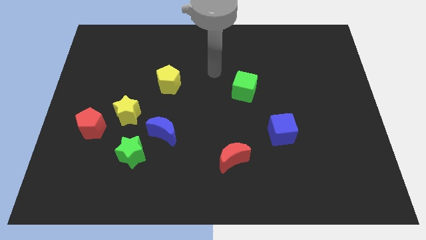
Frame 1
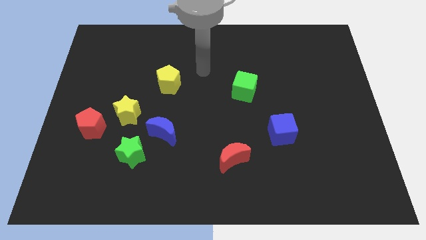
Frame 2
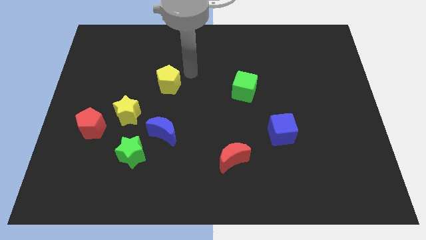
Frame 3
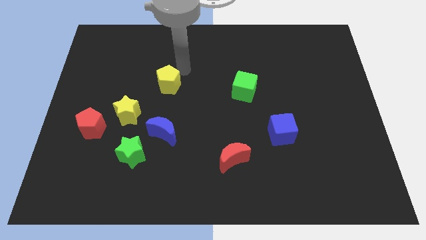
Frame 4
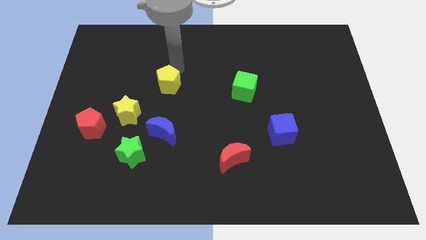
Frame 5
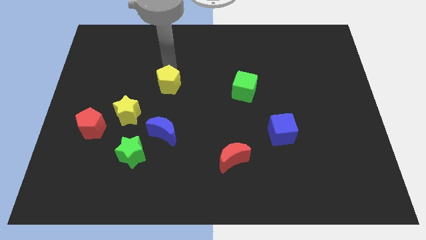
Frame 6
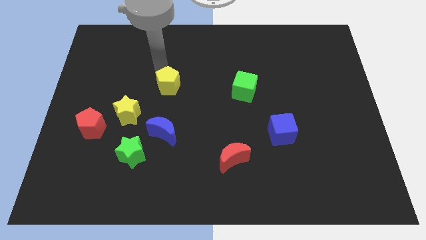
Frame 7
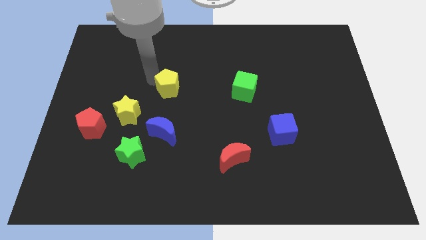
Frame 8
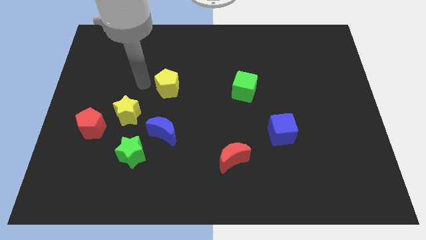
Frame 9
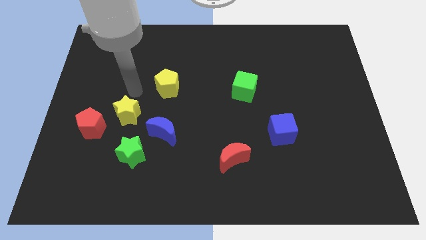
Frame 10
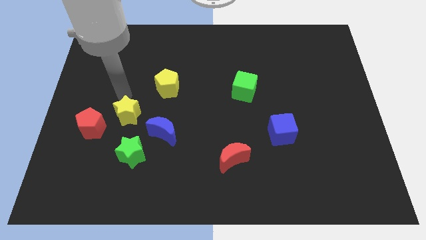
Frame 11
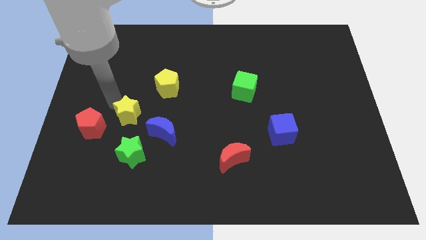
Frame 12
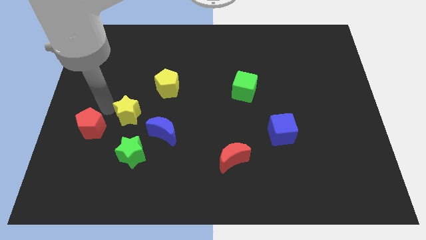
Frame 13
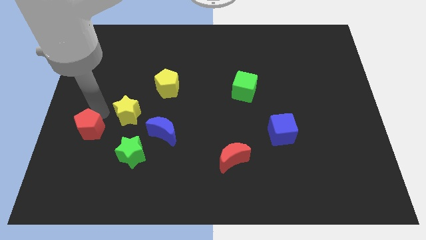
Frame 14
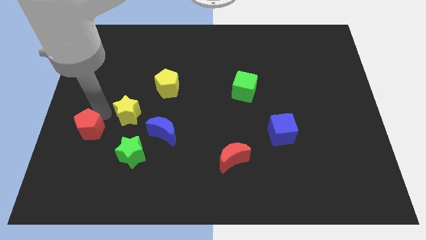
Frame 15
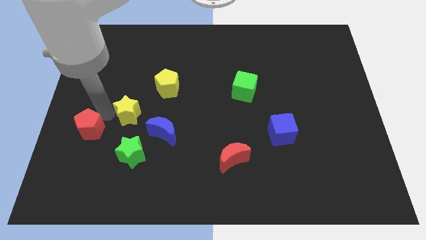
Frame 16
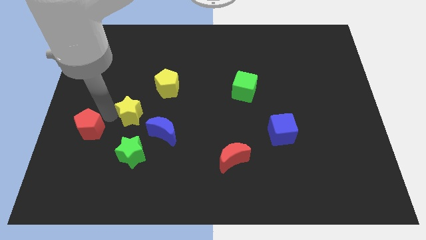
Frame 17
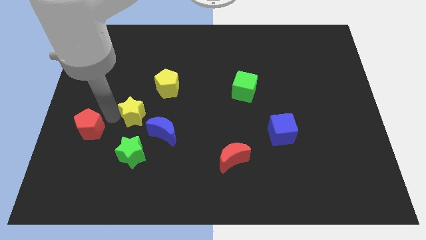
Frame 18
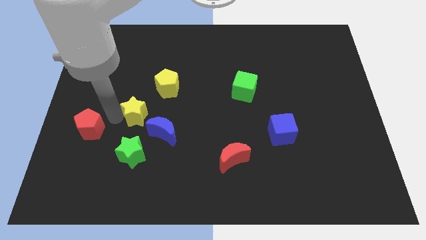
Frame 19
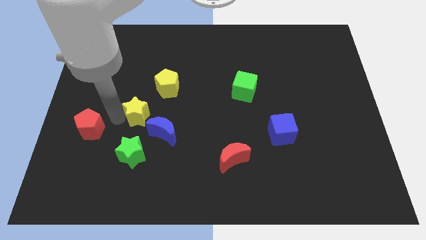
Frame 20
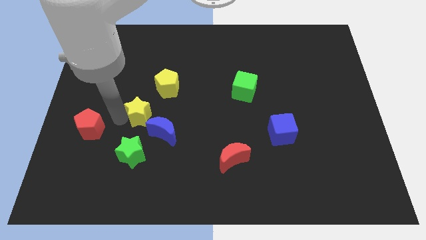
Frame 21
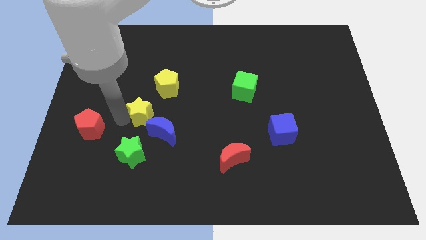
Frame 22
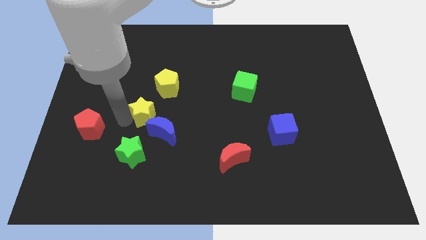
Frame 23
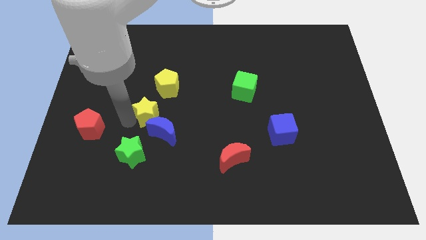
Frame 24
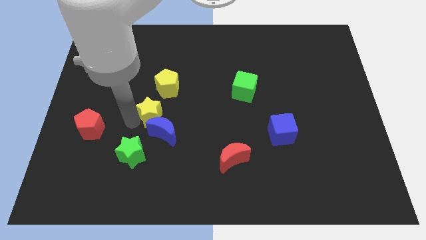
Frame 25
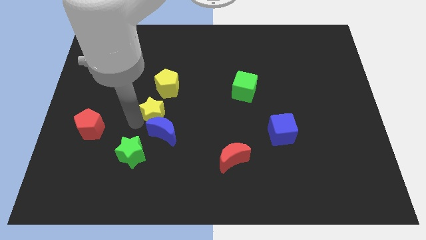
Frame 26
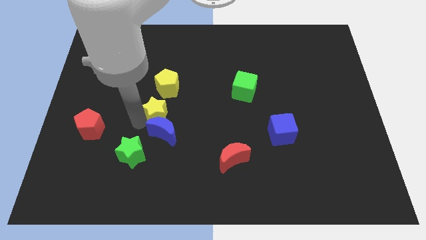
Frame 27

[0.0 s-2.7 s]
slightly push the yellow star right

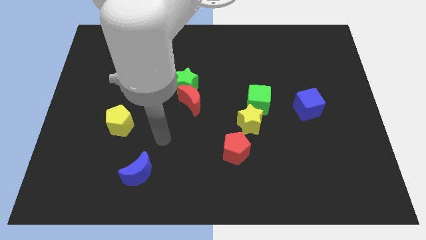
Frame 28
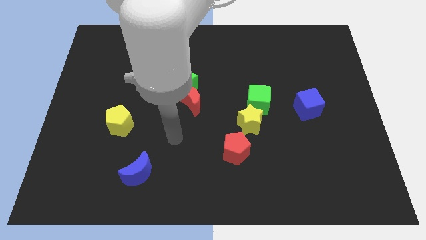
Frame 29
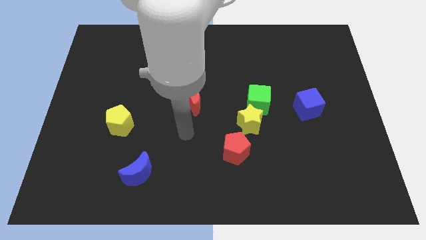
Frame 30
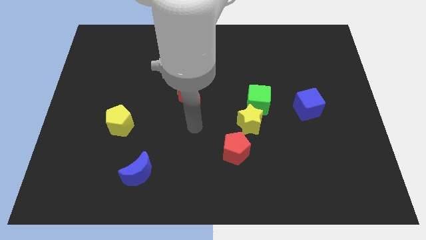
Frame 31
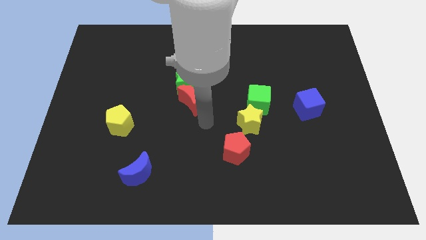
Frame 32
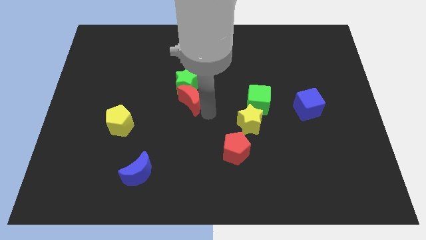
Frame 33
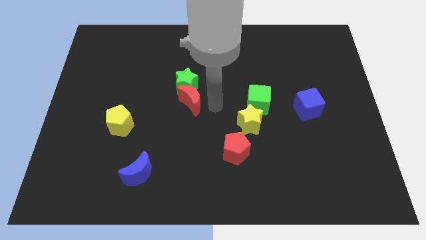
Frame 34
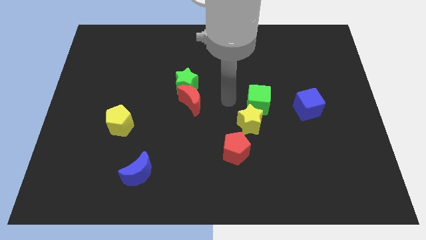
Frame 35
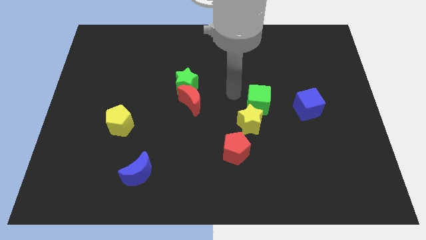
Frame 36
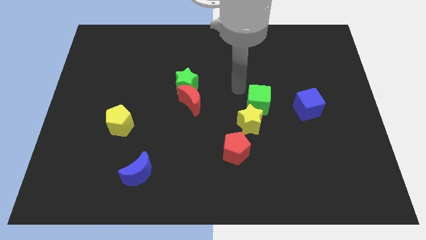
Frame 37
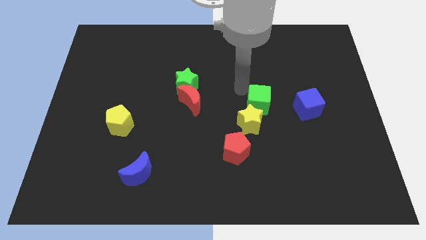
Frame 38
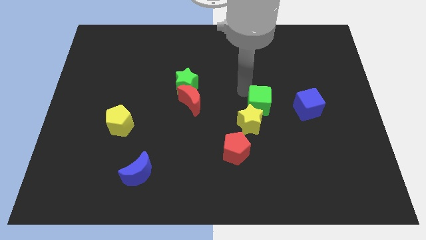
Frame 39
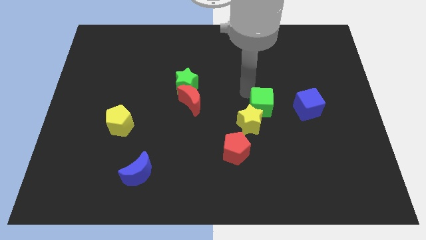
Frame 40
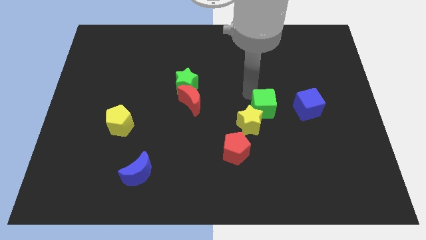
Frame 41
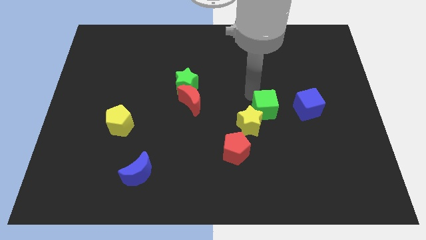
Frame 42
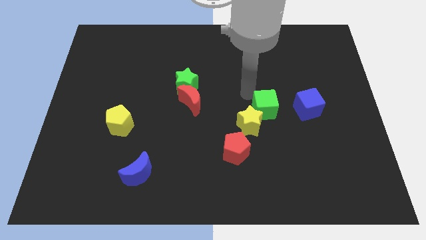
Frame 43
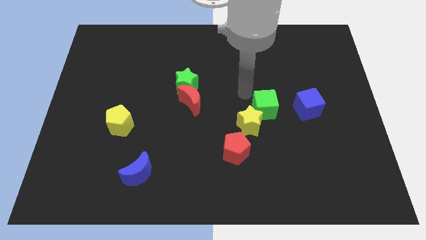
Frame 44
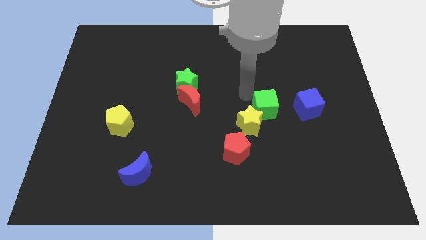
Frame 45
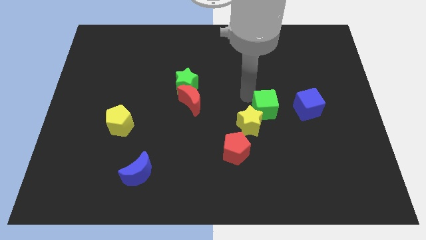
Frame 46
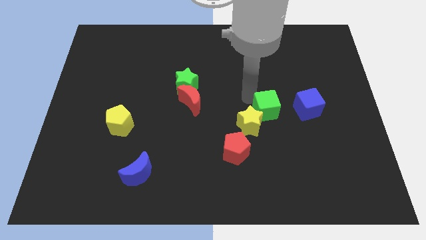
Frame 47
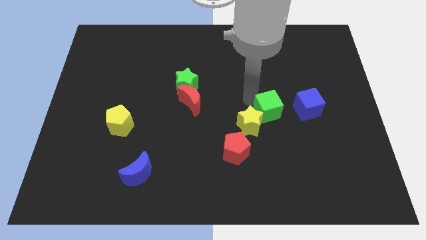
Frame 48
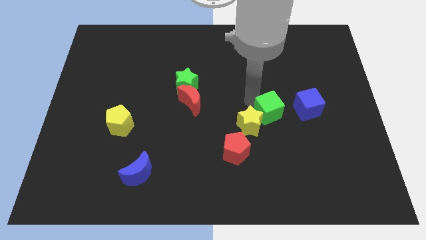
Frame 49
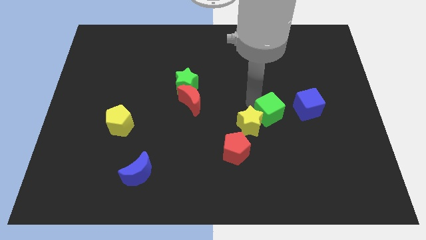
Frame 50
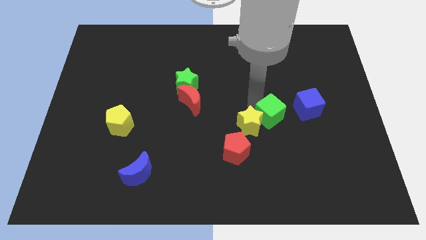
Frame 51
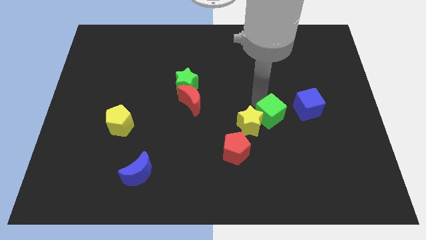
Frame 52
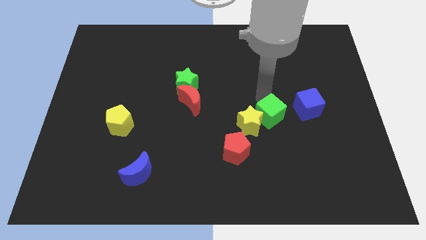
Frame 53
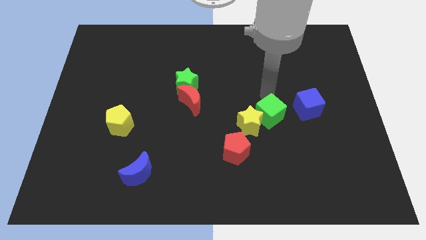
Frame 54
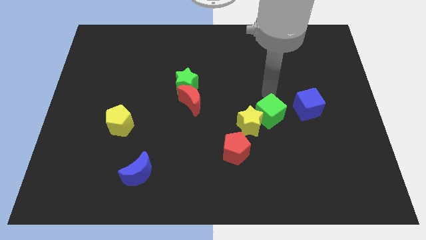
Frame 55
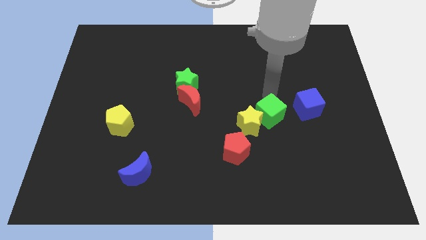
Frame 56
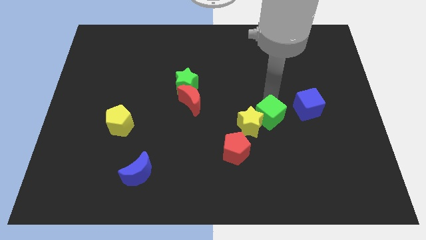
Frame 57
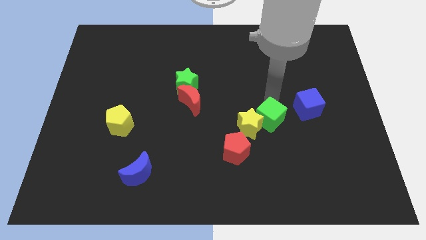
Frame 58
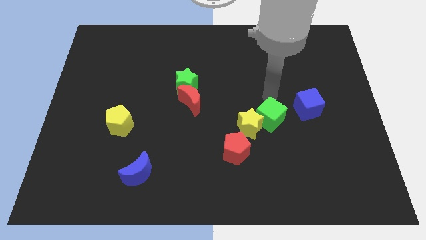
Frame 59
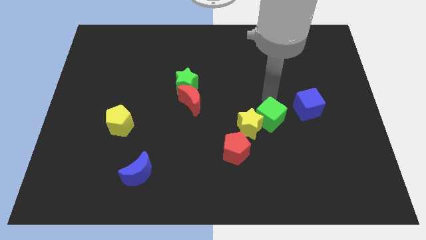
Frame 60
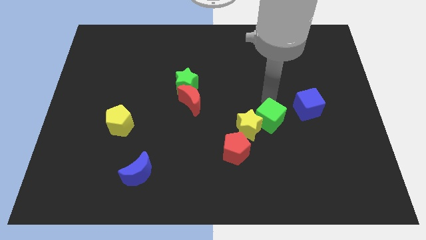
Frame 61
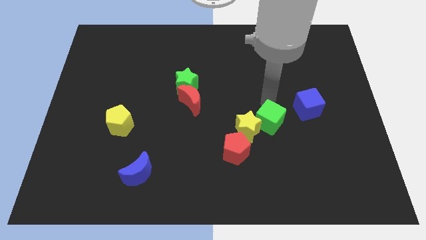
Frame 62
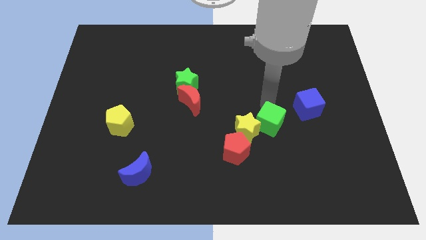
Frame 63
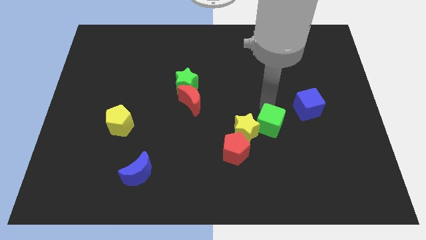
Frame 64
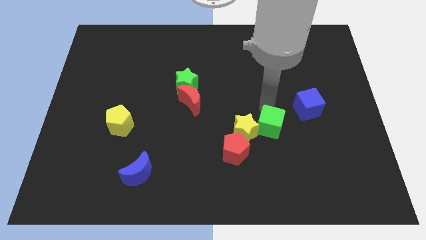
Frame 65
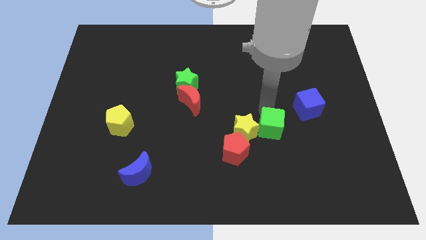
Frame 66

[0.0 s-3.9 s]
slide the green cube downwards slightly

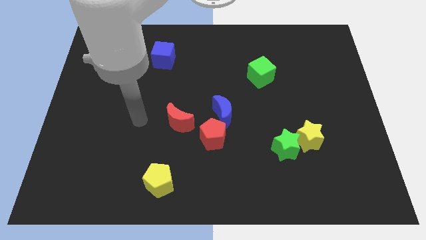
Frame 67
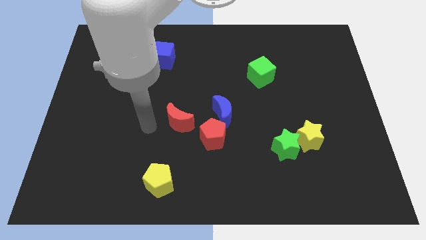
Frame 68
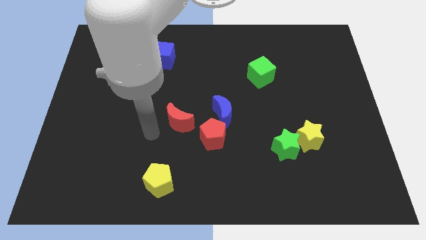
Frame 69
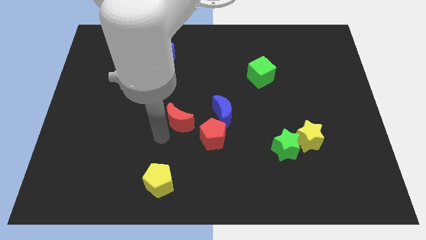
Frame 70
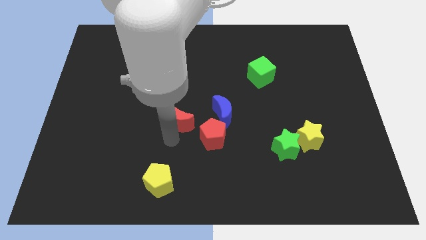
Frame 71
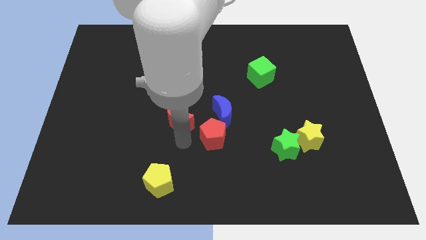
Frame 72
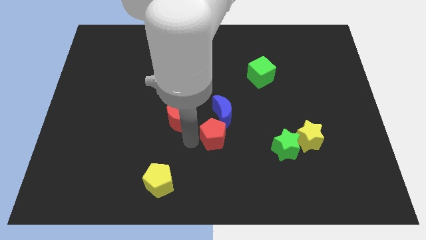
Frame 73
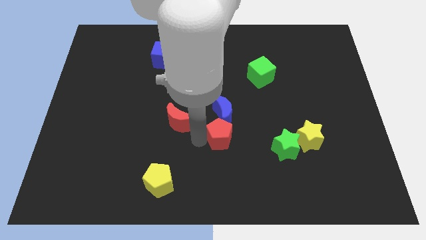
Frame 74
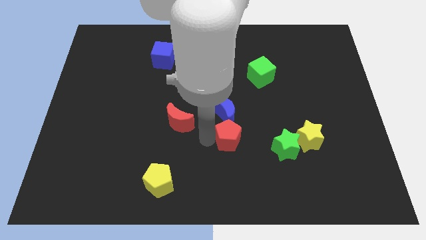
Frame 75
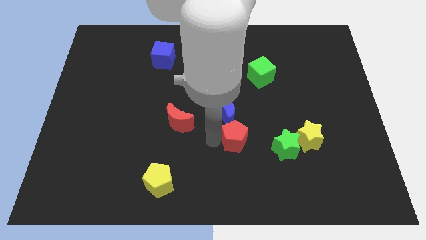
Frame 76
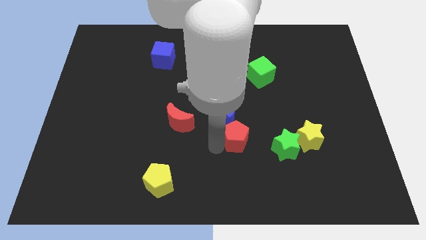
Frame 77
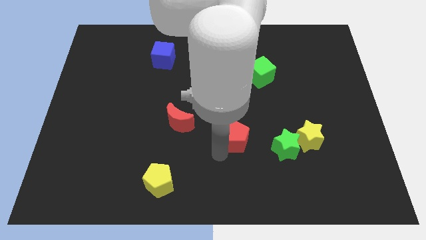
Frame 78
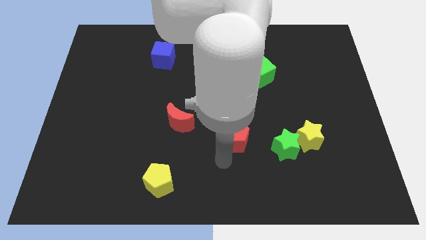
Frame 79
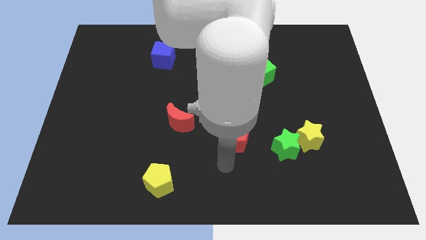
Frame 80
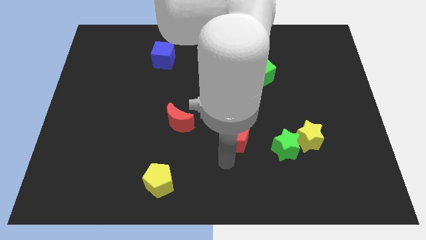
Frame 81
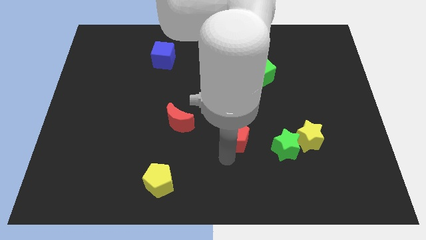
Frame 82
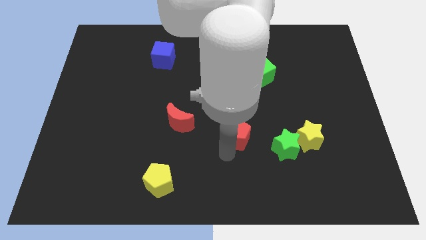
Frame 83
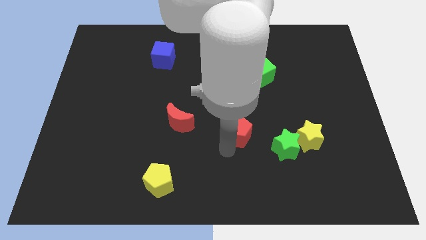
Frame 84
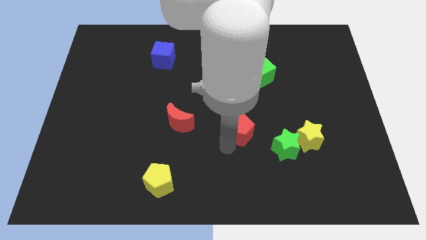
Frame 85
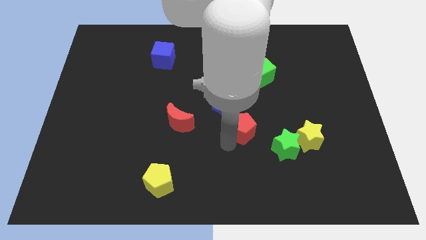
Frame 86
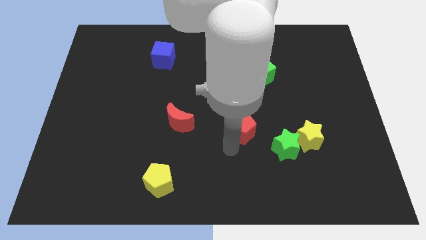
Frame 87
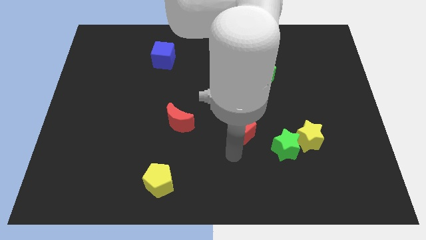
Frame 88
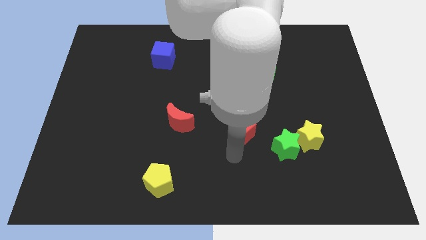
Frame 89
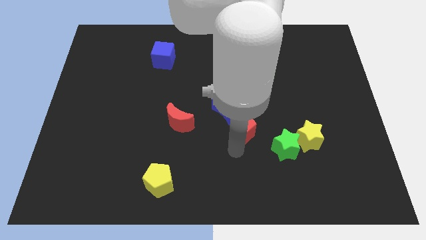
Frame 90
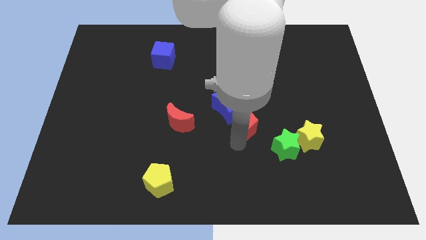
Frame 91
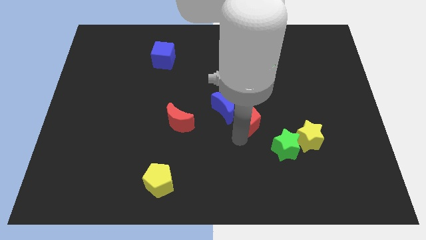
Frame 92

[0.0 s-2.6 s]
move the red pentagon slightly upwards and right diagonally
